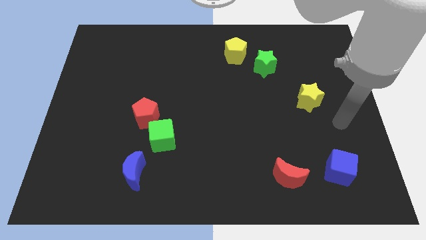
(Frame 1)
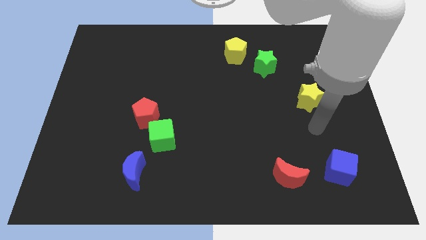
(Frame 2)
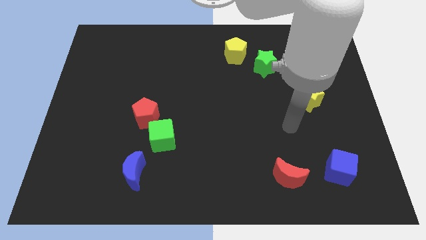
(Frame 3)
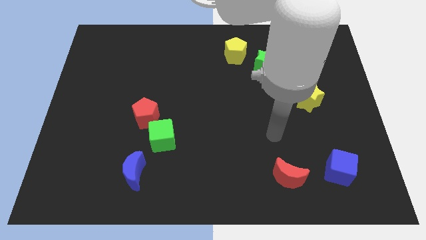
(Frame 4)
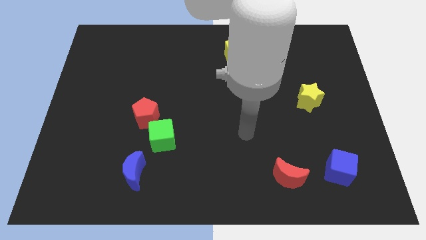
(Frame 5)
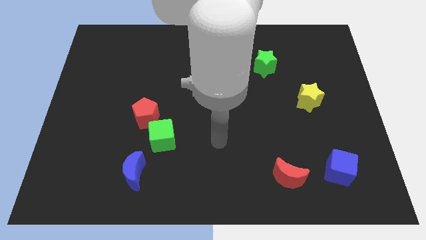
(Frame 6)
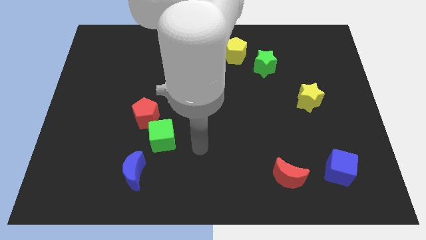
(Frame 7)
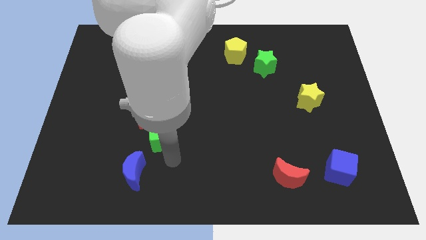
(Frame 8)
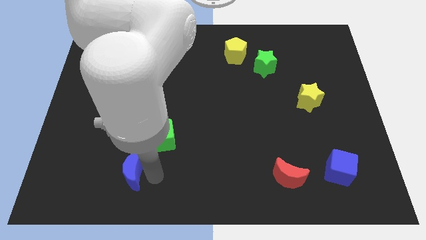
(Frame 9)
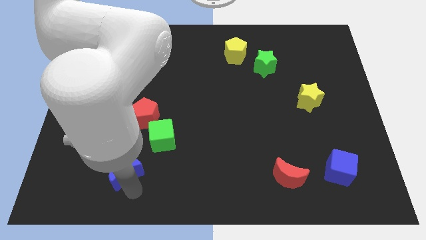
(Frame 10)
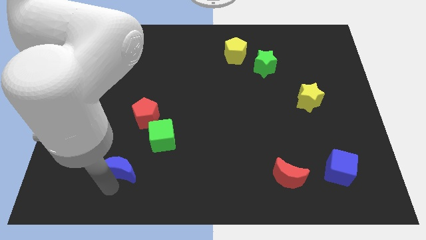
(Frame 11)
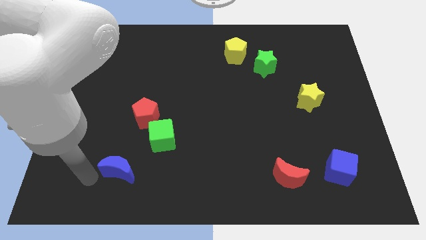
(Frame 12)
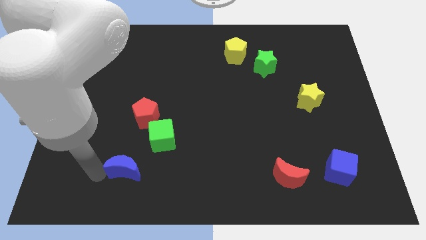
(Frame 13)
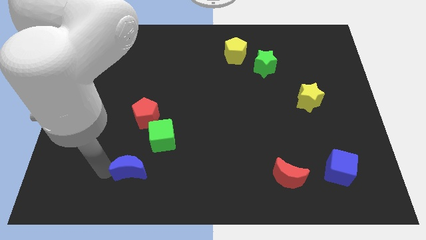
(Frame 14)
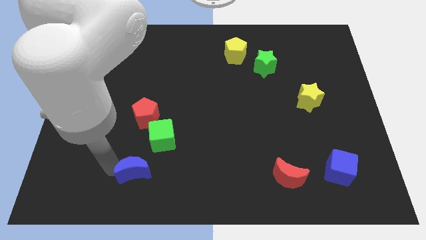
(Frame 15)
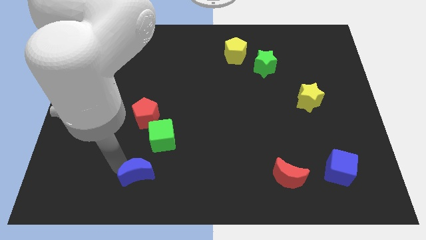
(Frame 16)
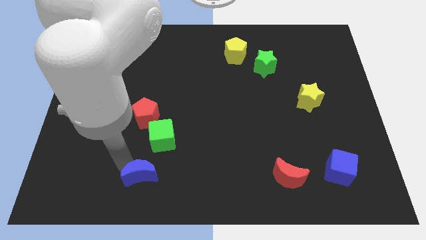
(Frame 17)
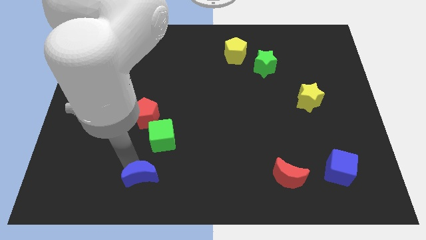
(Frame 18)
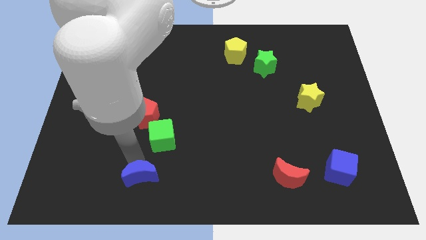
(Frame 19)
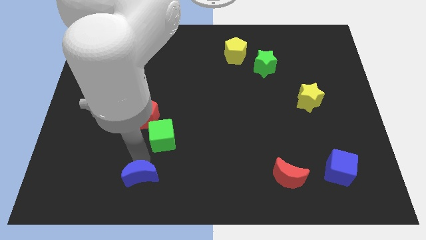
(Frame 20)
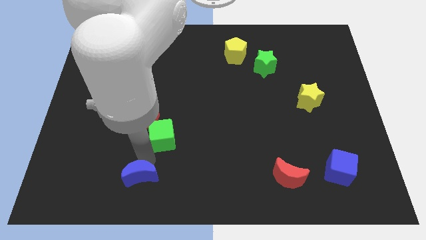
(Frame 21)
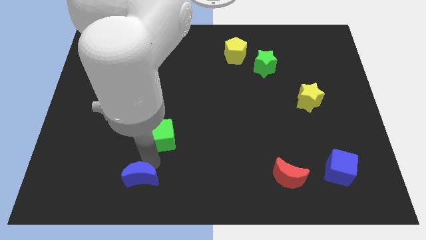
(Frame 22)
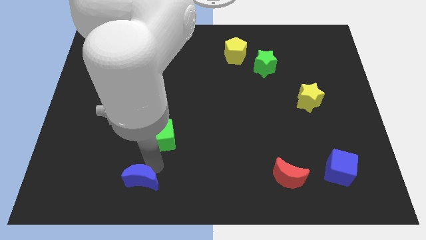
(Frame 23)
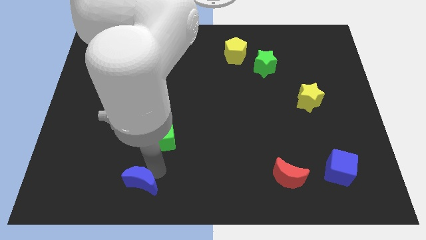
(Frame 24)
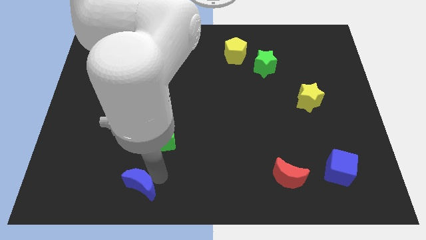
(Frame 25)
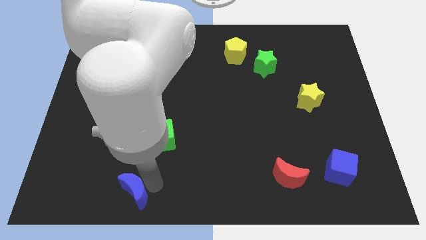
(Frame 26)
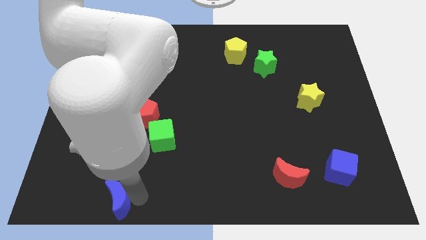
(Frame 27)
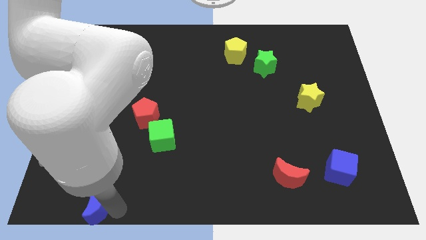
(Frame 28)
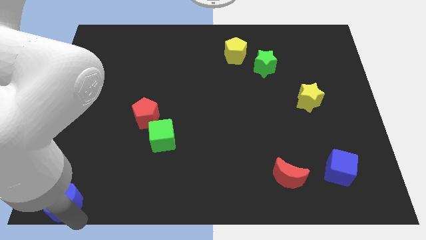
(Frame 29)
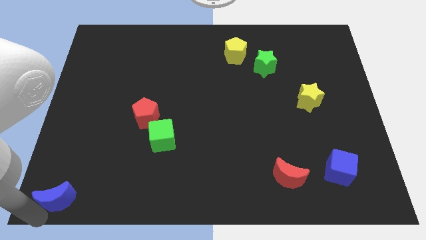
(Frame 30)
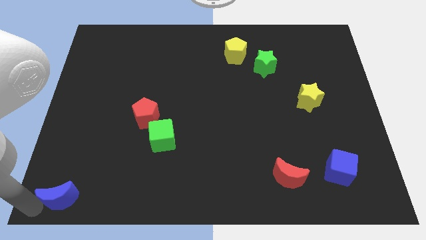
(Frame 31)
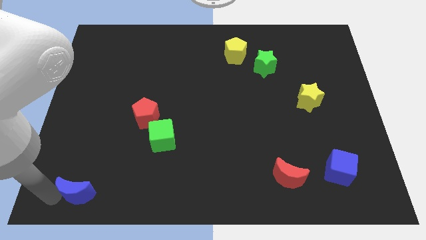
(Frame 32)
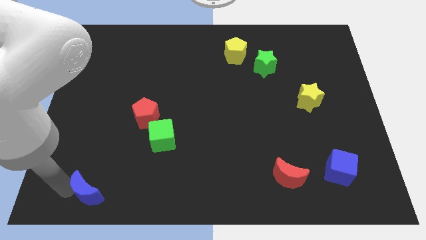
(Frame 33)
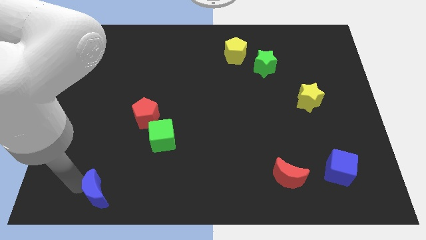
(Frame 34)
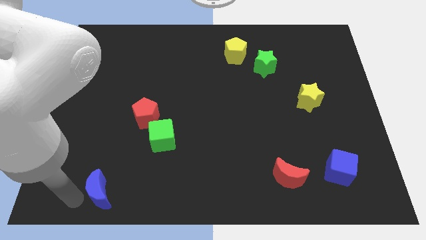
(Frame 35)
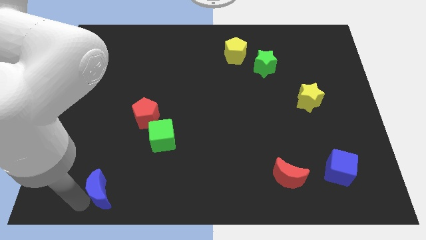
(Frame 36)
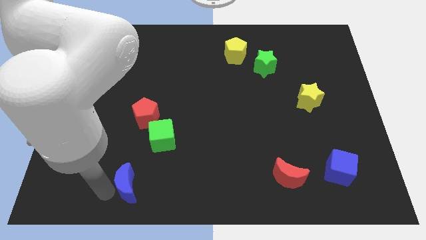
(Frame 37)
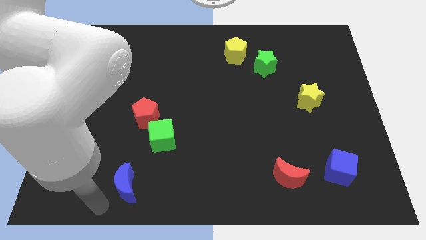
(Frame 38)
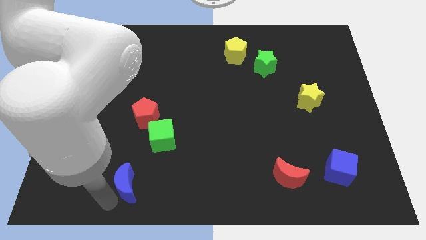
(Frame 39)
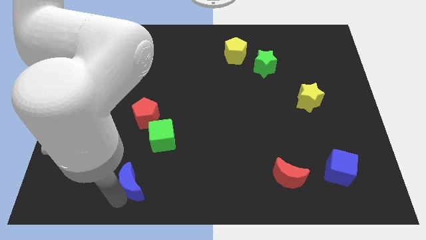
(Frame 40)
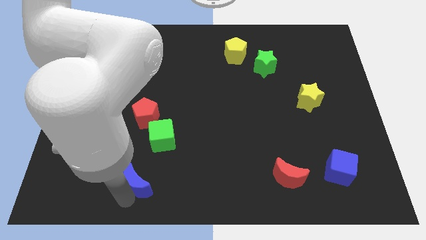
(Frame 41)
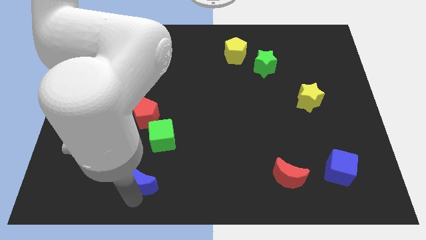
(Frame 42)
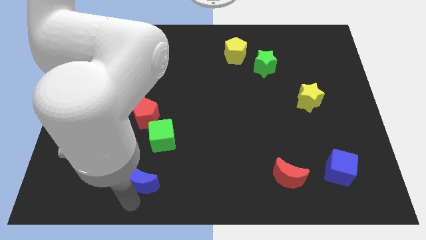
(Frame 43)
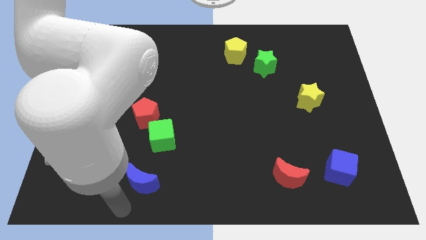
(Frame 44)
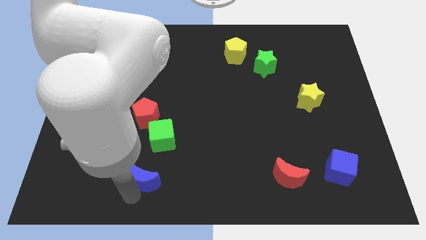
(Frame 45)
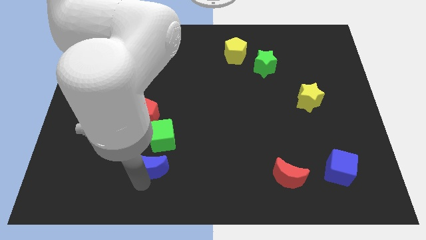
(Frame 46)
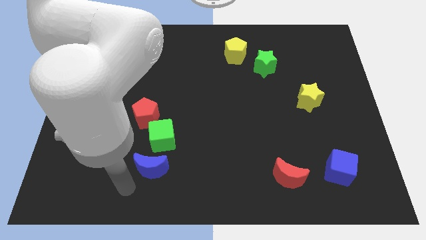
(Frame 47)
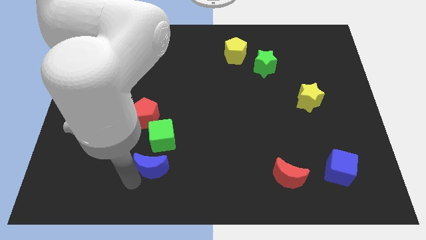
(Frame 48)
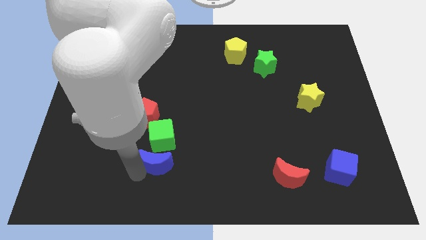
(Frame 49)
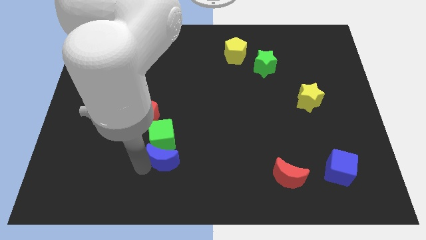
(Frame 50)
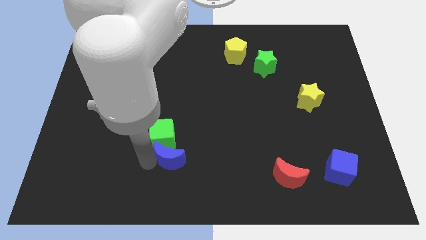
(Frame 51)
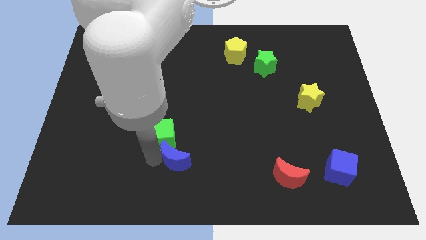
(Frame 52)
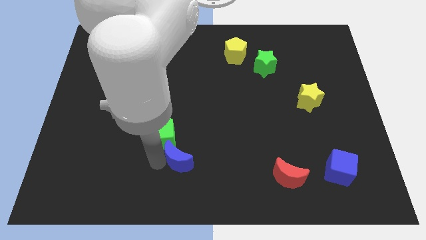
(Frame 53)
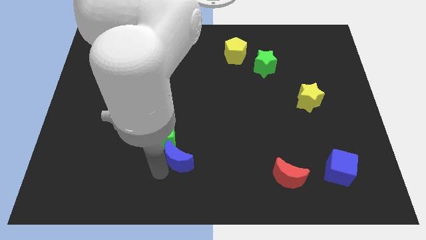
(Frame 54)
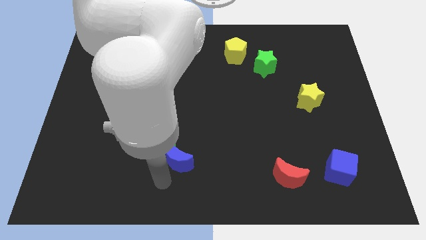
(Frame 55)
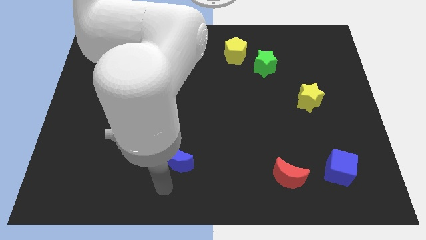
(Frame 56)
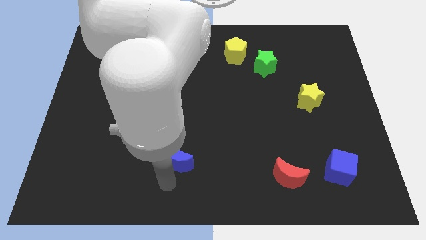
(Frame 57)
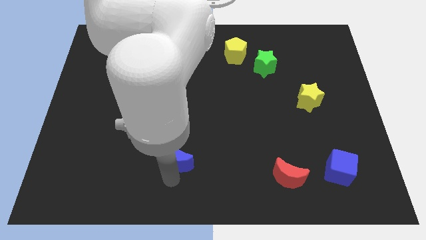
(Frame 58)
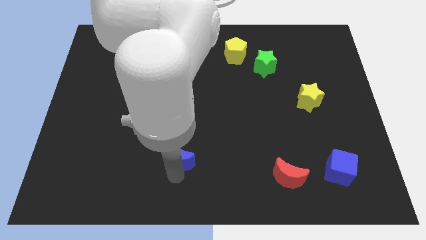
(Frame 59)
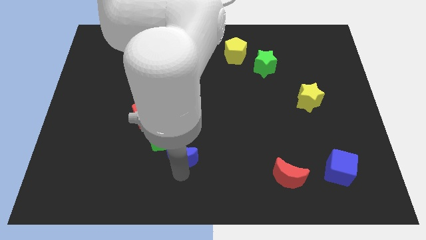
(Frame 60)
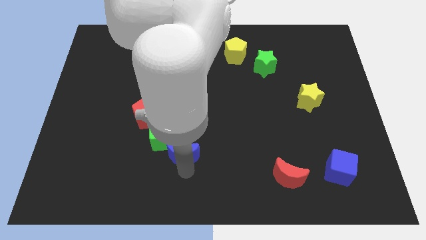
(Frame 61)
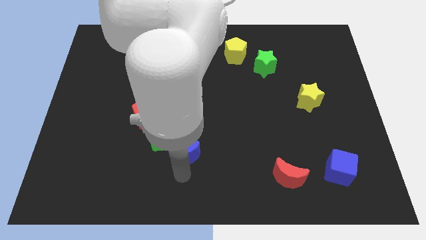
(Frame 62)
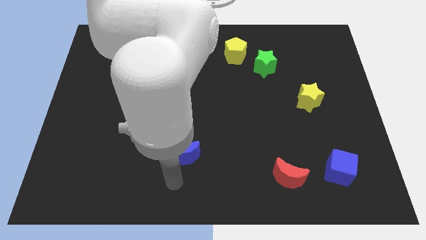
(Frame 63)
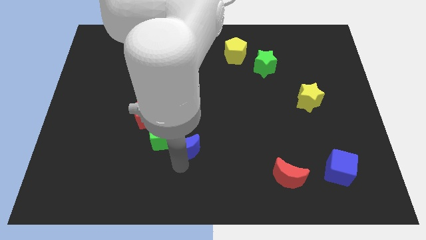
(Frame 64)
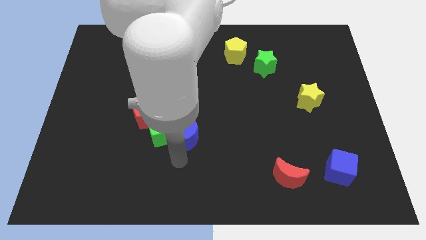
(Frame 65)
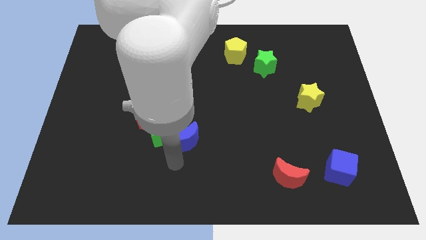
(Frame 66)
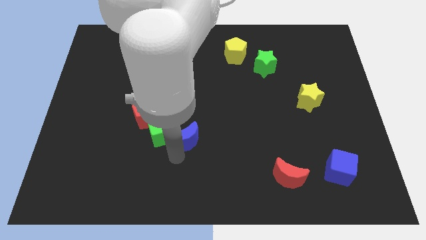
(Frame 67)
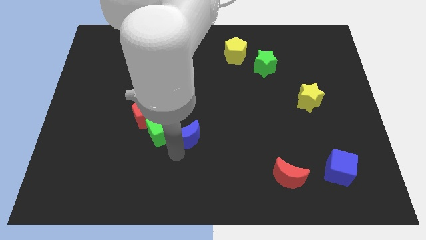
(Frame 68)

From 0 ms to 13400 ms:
push the blue moon to the center of the board
